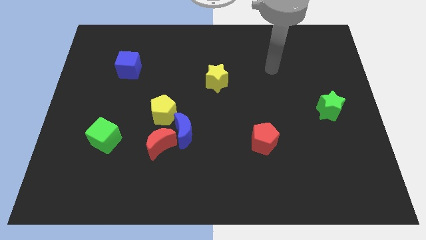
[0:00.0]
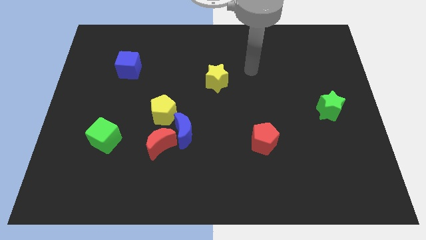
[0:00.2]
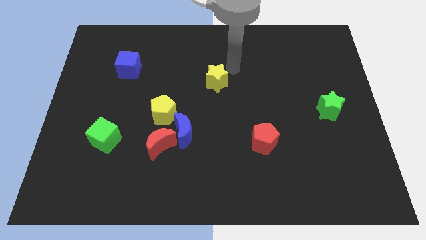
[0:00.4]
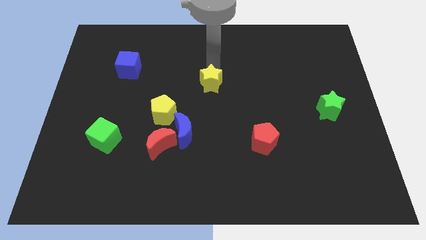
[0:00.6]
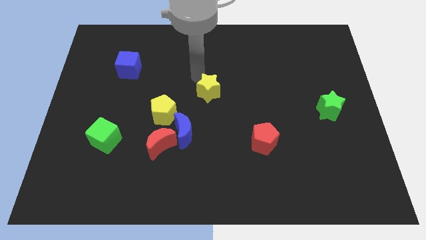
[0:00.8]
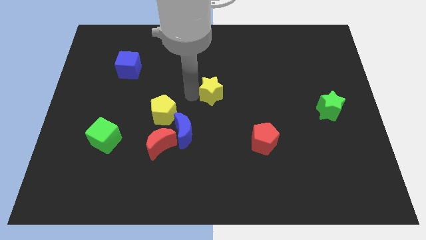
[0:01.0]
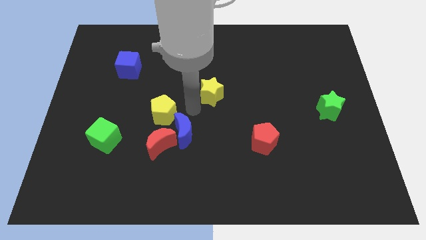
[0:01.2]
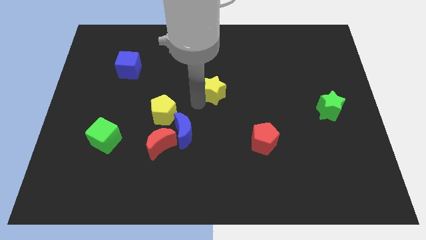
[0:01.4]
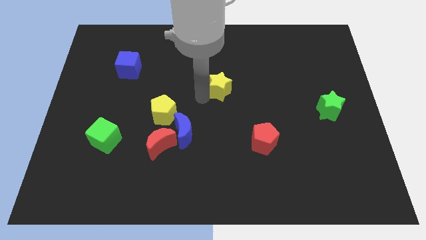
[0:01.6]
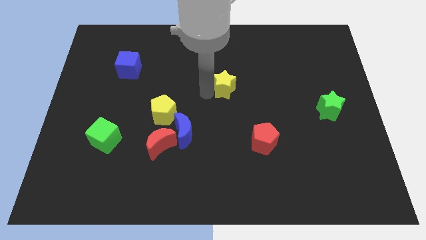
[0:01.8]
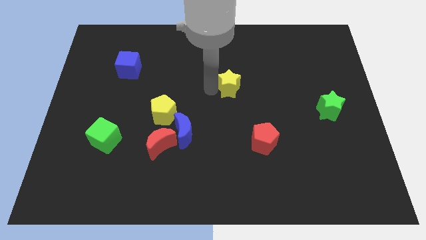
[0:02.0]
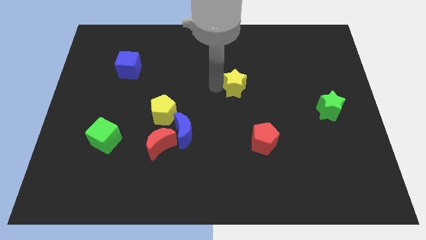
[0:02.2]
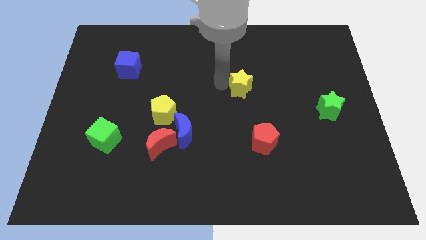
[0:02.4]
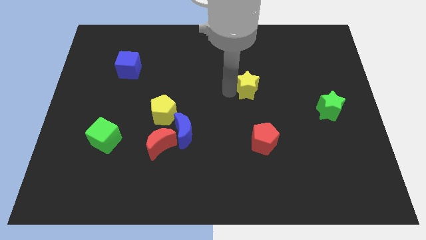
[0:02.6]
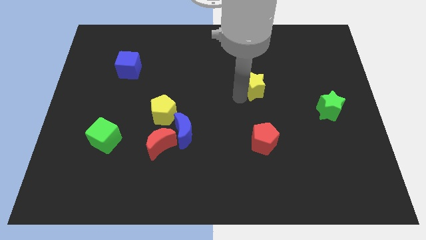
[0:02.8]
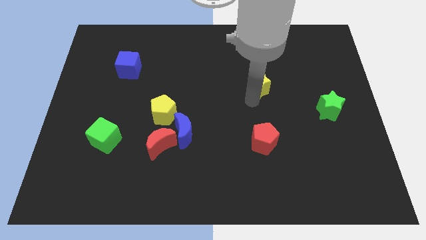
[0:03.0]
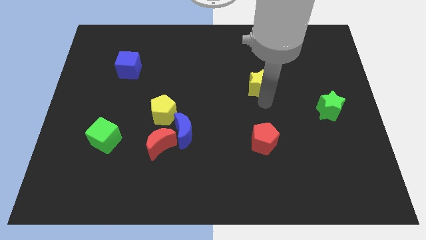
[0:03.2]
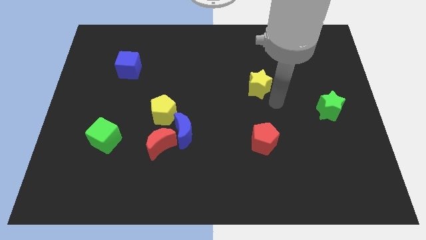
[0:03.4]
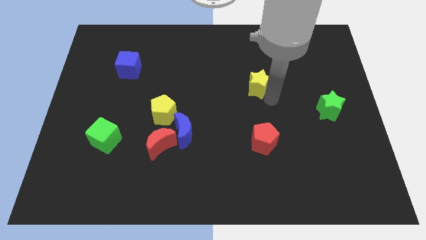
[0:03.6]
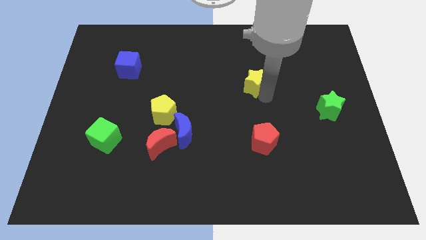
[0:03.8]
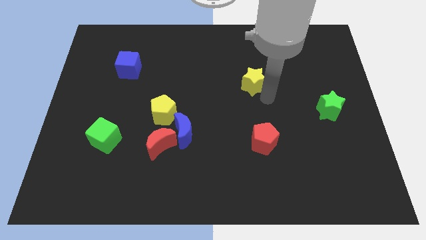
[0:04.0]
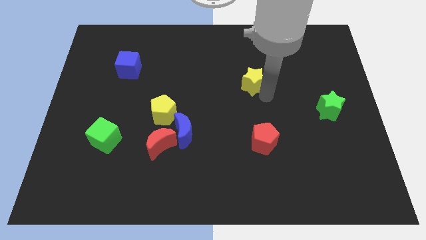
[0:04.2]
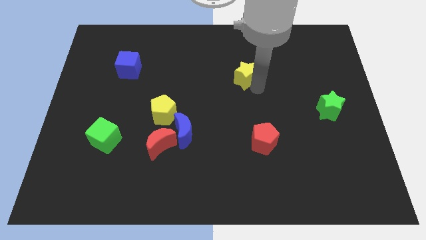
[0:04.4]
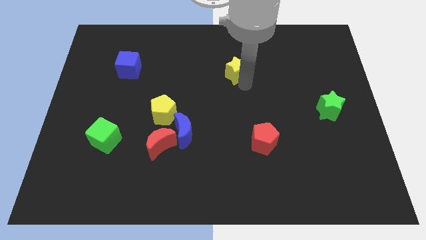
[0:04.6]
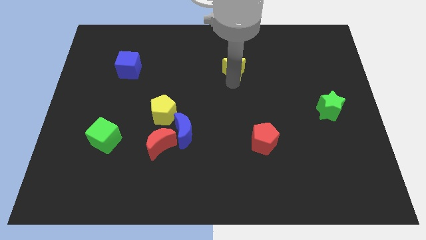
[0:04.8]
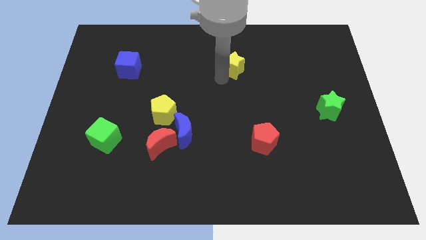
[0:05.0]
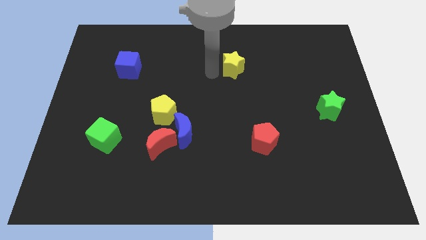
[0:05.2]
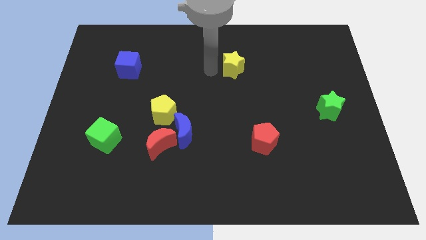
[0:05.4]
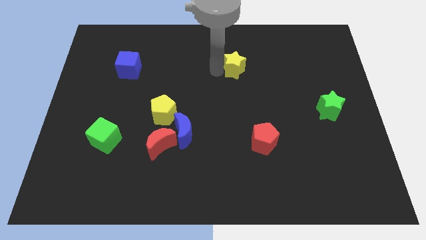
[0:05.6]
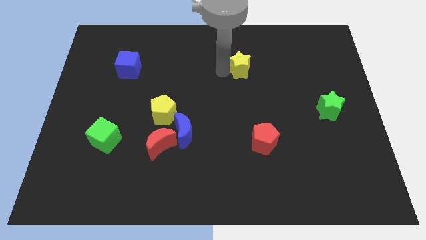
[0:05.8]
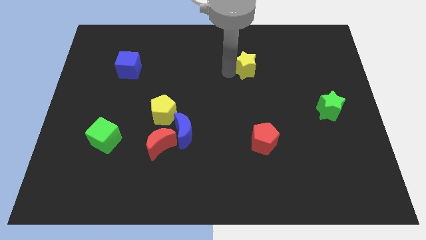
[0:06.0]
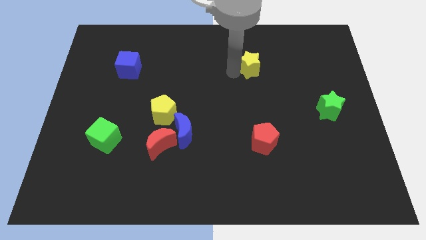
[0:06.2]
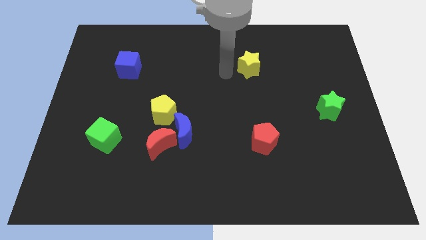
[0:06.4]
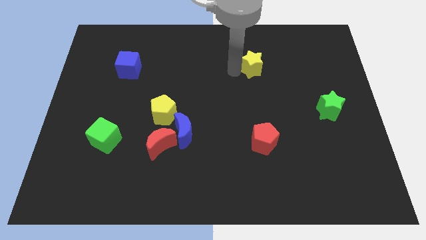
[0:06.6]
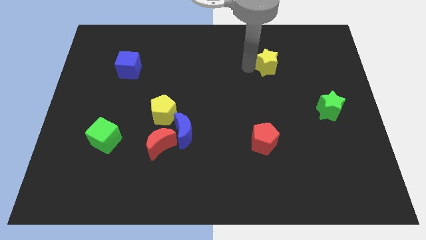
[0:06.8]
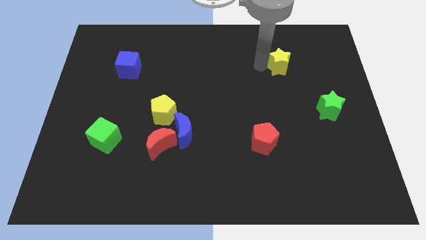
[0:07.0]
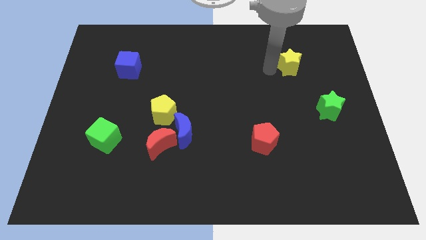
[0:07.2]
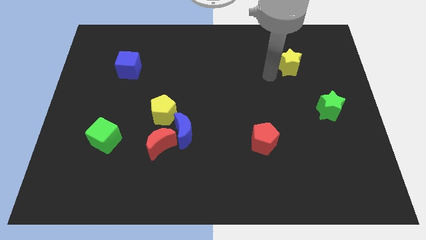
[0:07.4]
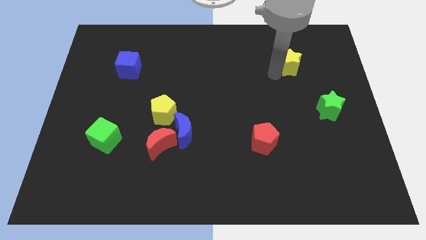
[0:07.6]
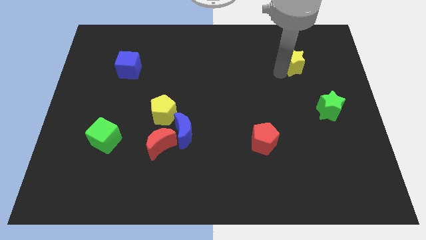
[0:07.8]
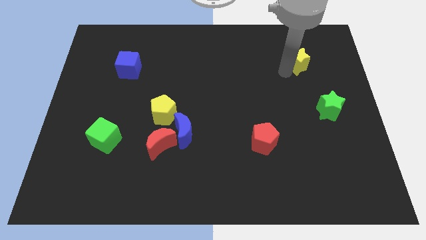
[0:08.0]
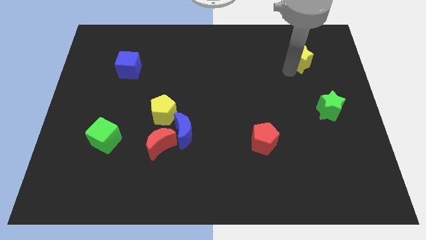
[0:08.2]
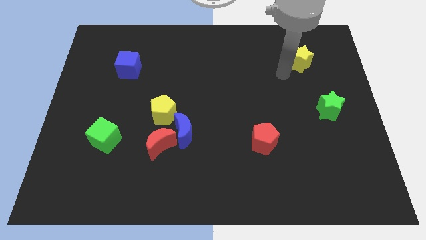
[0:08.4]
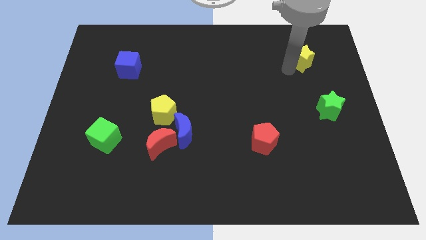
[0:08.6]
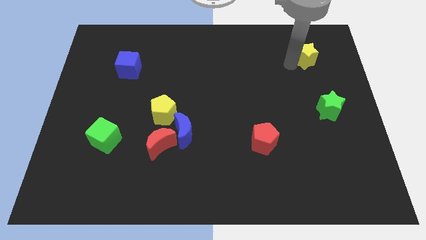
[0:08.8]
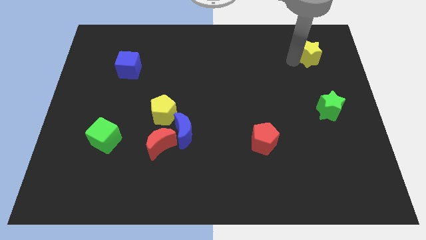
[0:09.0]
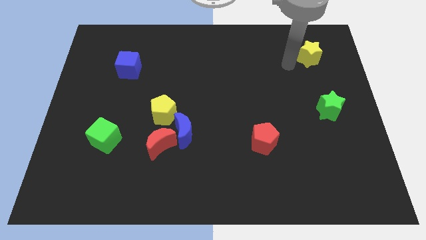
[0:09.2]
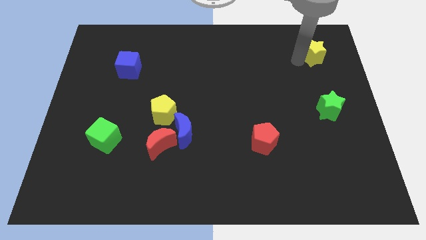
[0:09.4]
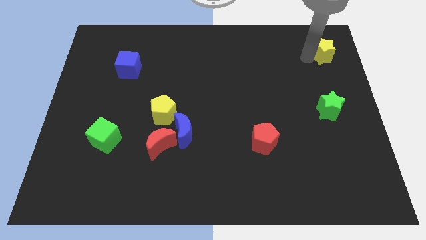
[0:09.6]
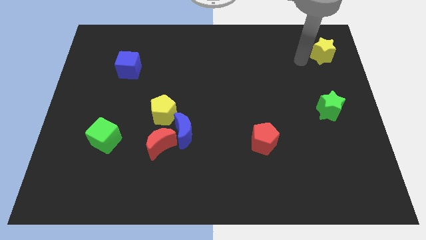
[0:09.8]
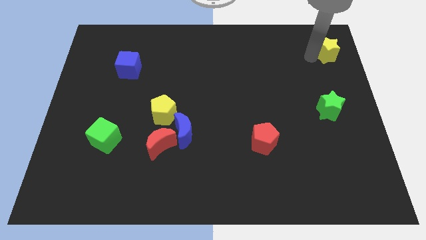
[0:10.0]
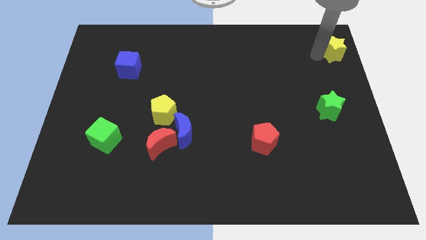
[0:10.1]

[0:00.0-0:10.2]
put the yellow star to the top right of the board

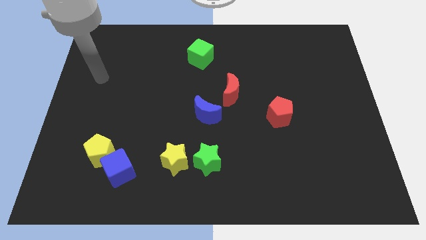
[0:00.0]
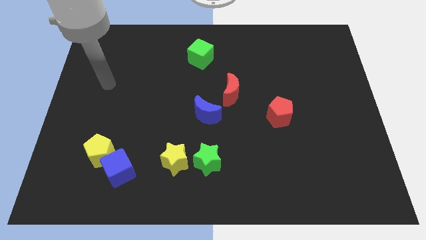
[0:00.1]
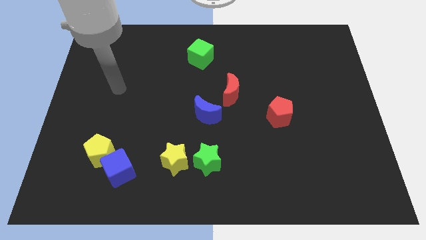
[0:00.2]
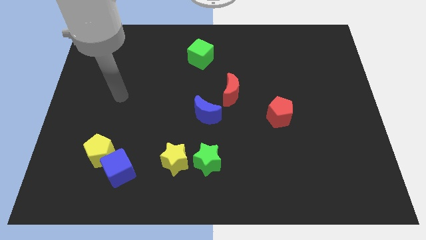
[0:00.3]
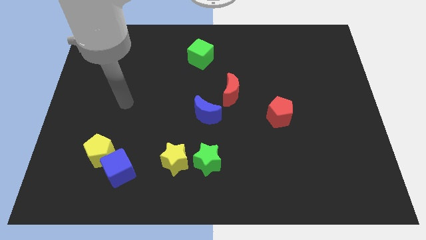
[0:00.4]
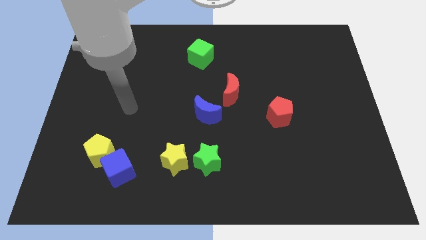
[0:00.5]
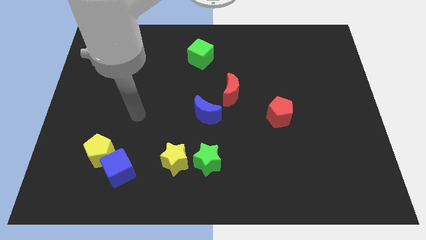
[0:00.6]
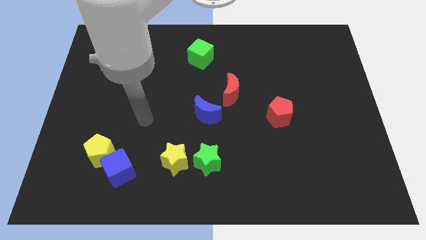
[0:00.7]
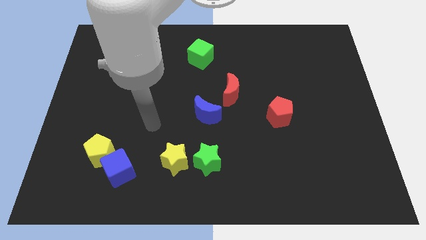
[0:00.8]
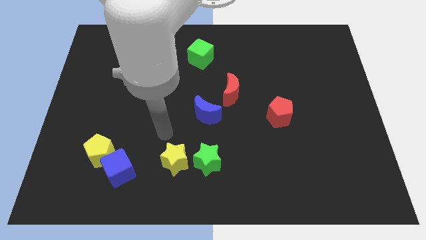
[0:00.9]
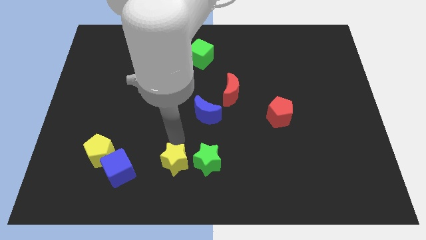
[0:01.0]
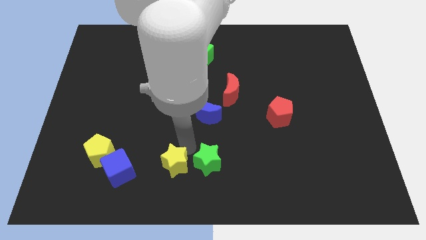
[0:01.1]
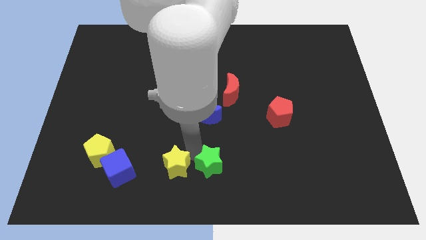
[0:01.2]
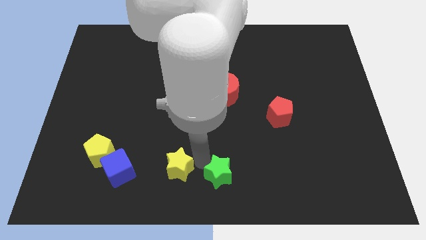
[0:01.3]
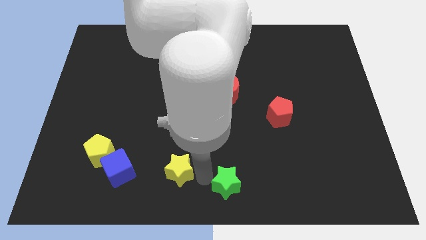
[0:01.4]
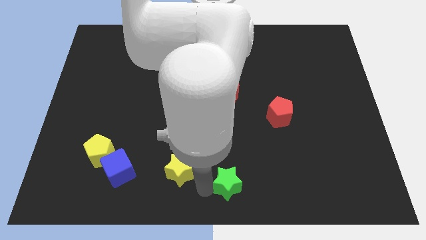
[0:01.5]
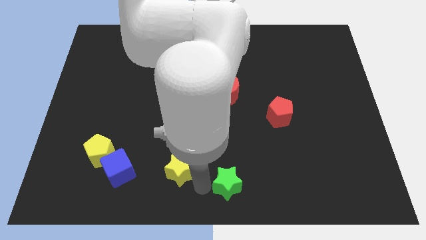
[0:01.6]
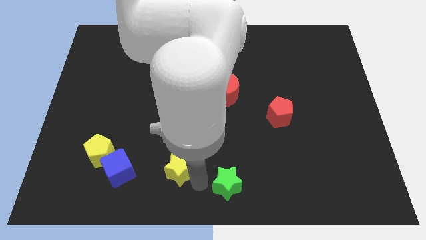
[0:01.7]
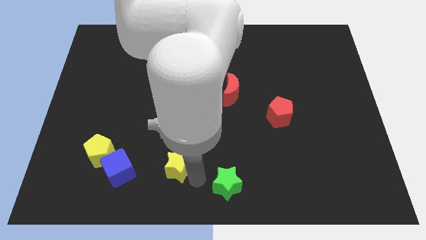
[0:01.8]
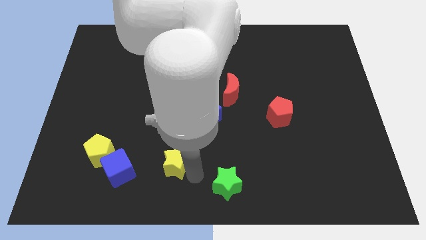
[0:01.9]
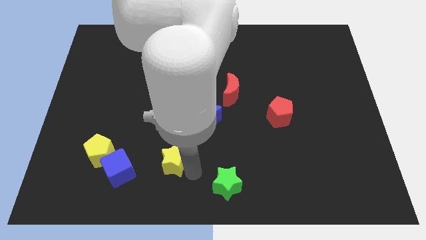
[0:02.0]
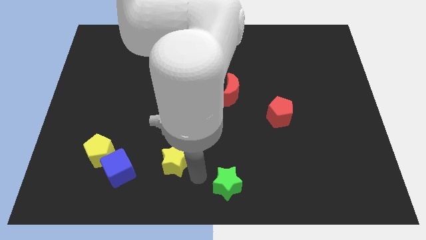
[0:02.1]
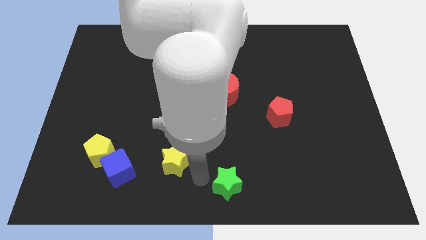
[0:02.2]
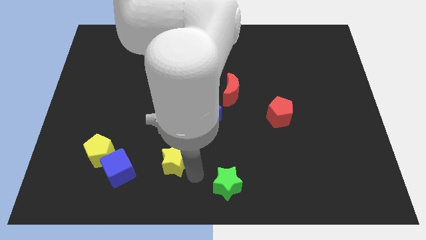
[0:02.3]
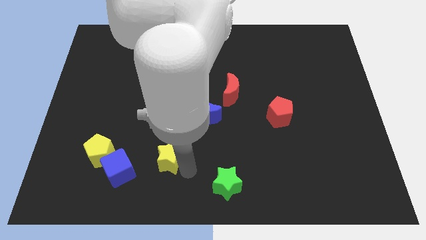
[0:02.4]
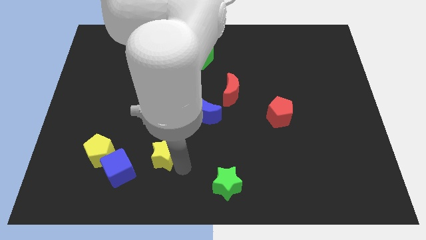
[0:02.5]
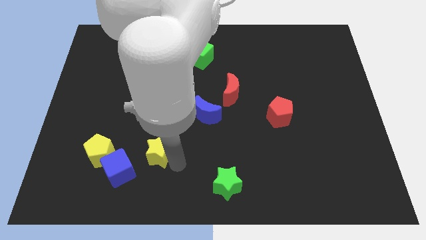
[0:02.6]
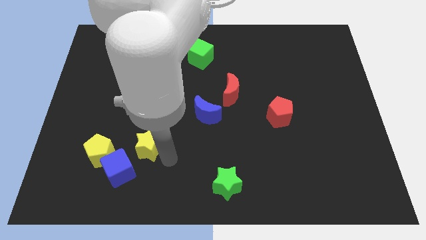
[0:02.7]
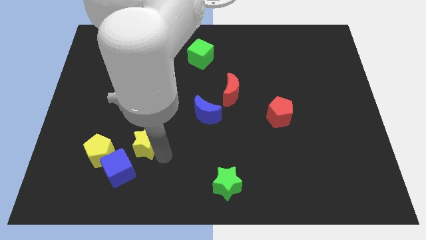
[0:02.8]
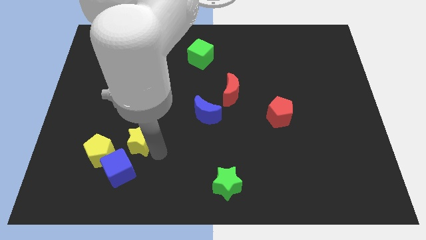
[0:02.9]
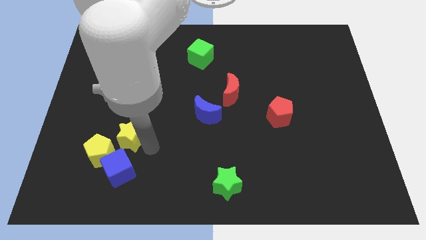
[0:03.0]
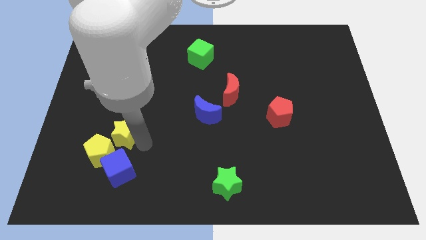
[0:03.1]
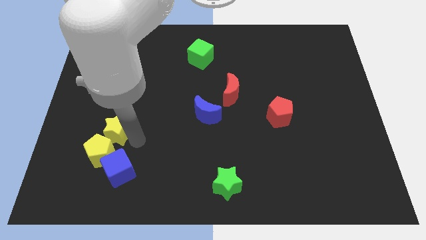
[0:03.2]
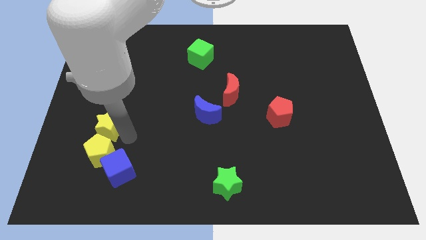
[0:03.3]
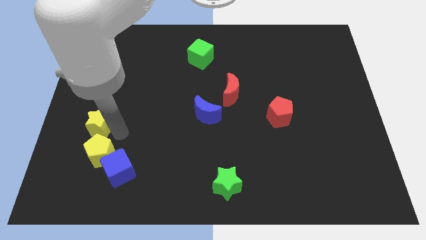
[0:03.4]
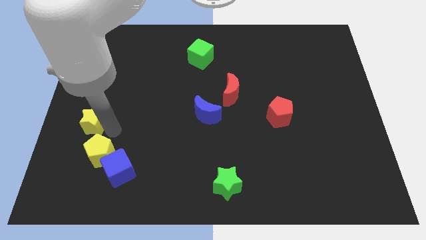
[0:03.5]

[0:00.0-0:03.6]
push the yellow star to the left side of the board
